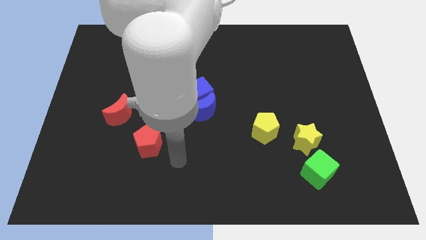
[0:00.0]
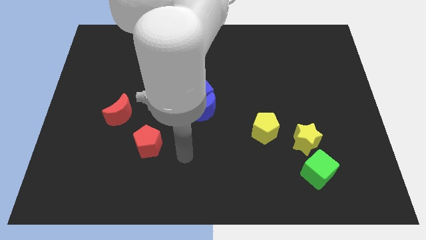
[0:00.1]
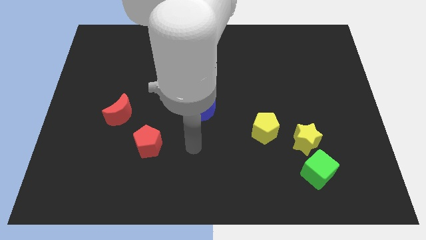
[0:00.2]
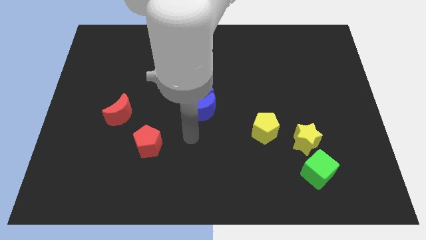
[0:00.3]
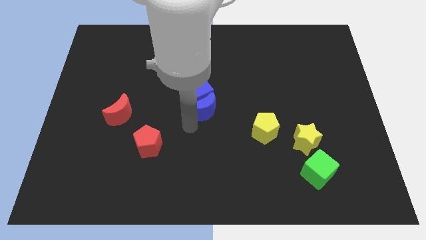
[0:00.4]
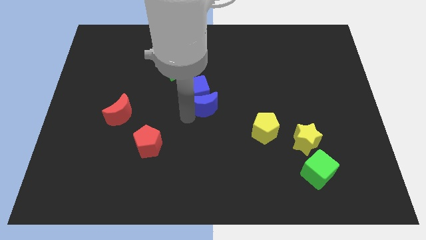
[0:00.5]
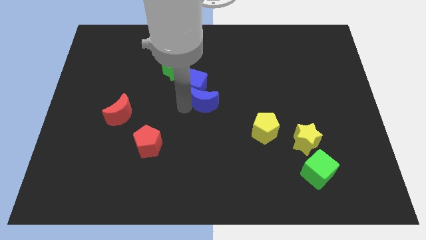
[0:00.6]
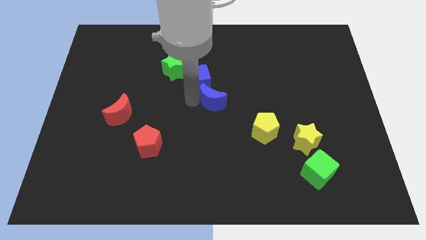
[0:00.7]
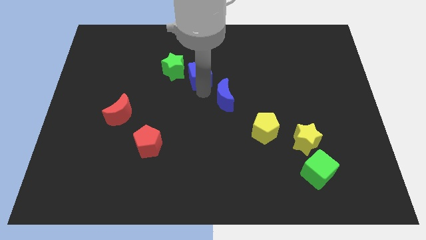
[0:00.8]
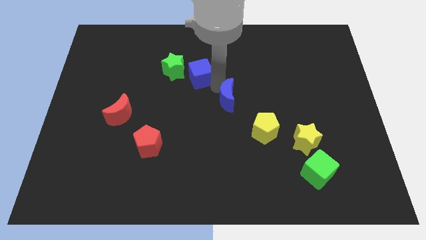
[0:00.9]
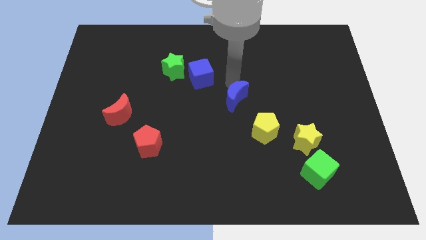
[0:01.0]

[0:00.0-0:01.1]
pull the blue moon apart from the blue cube

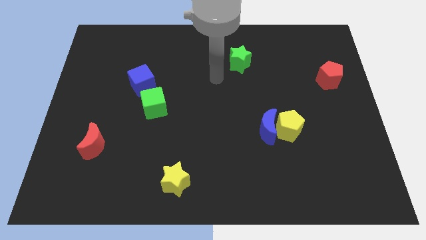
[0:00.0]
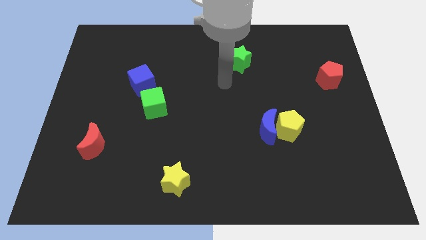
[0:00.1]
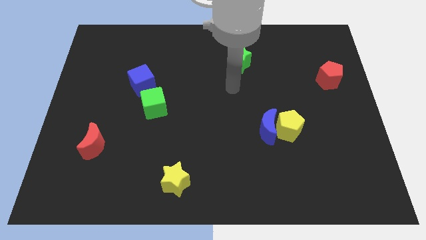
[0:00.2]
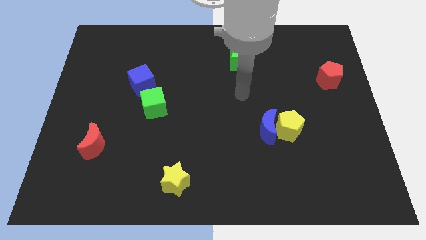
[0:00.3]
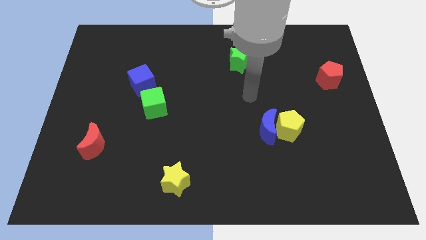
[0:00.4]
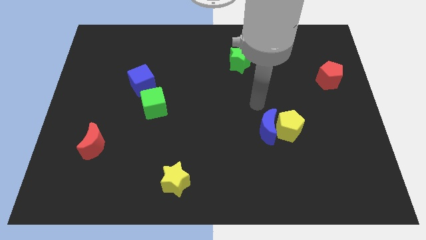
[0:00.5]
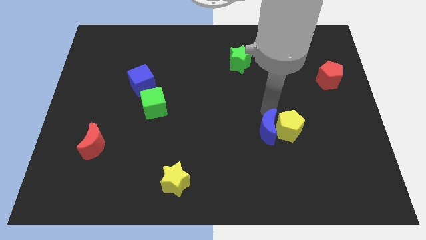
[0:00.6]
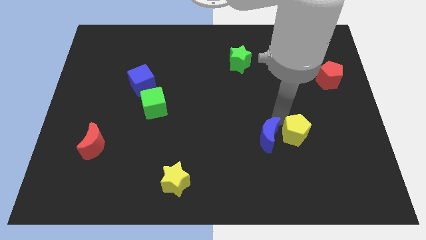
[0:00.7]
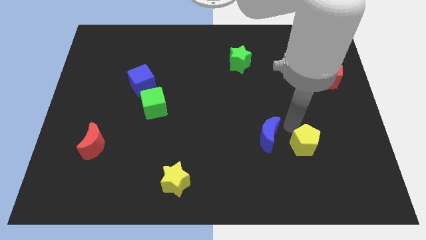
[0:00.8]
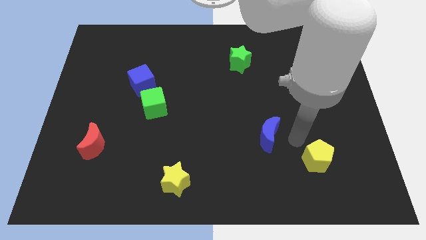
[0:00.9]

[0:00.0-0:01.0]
pull the blue moon apart from the yellow pentagon

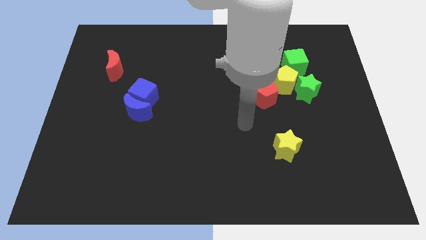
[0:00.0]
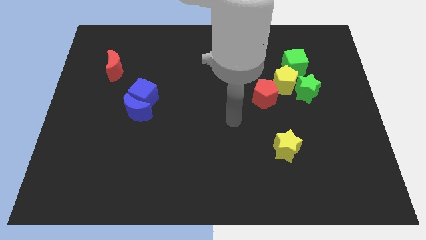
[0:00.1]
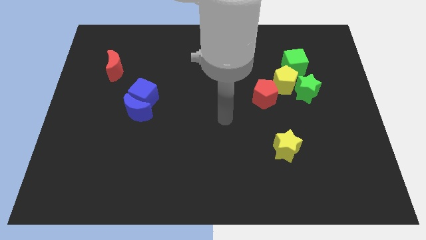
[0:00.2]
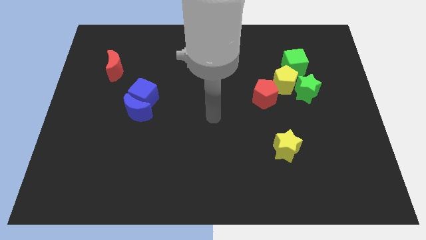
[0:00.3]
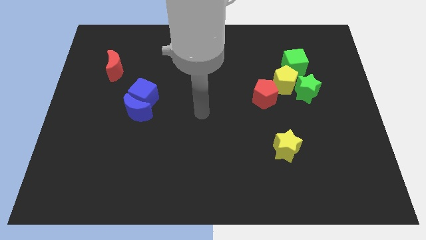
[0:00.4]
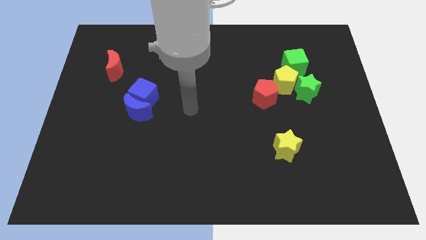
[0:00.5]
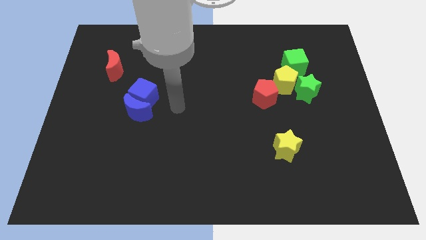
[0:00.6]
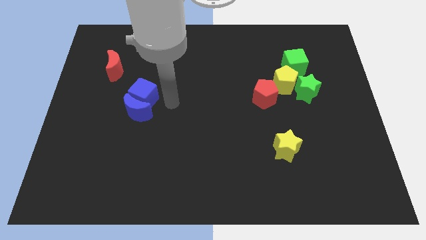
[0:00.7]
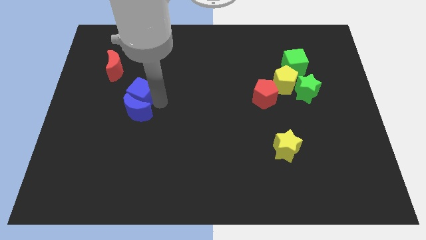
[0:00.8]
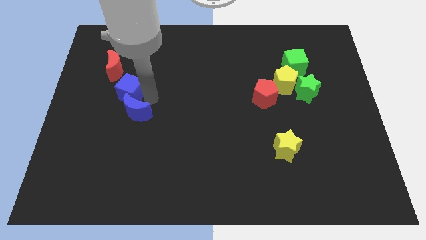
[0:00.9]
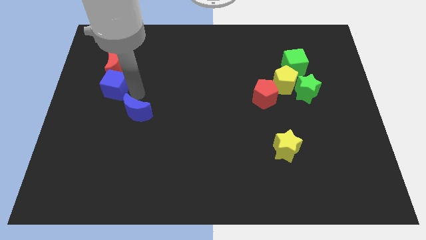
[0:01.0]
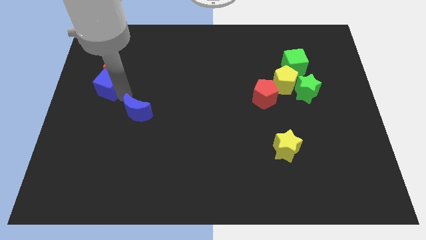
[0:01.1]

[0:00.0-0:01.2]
move the blue moon away from the blue cube

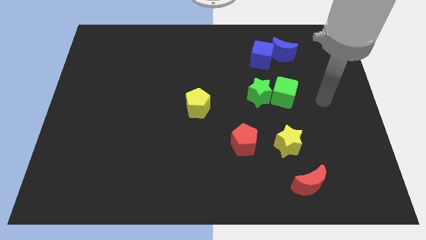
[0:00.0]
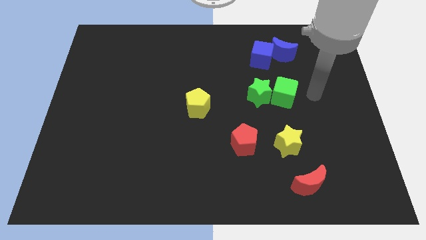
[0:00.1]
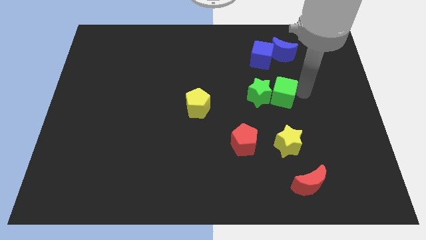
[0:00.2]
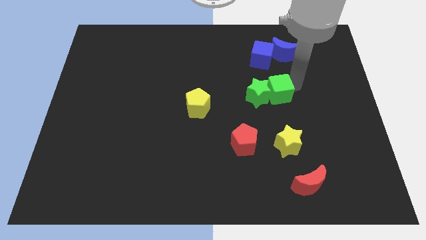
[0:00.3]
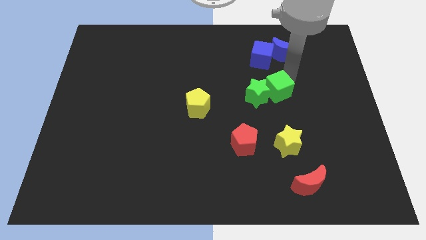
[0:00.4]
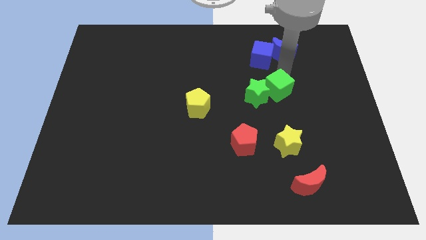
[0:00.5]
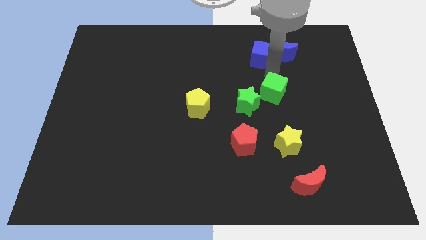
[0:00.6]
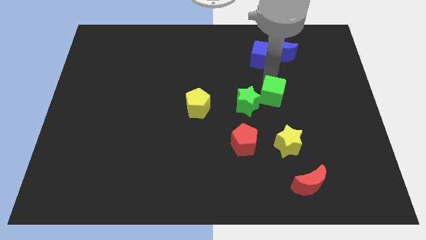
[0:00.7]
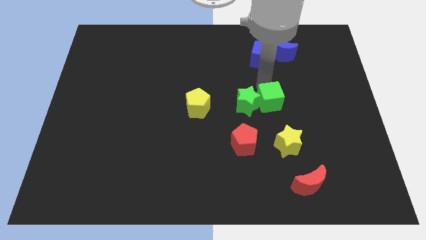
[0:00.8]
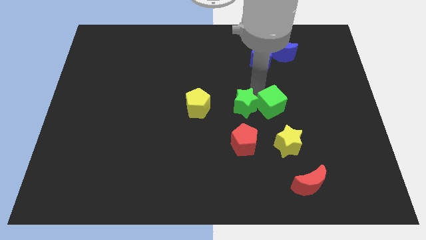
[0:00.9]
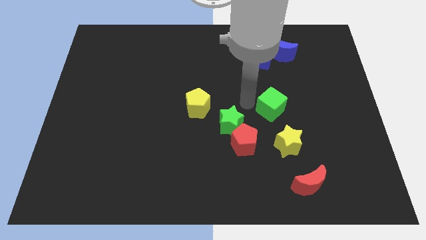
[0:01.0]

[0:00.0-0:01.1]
move the green cube away from the green star

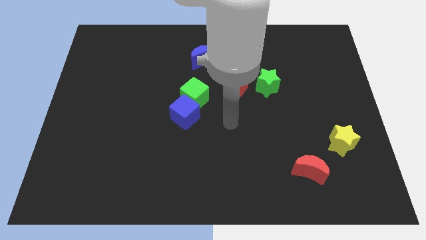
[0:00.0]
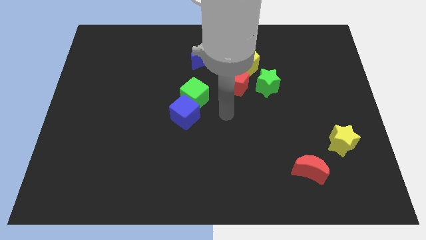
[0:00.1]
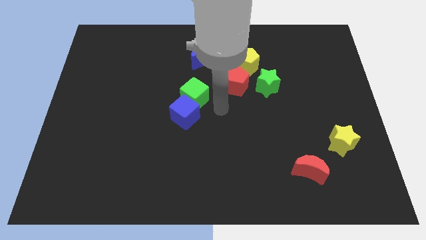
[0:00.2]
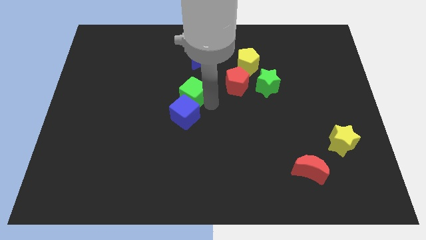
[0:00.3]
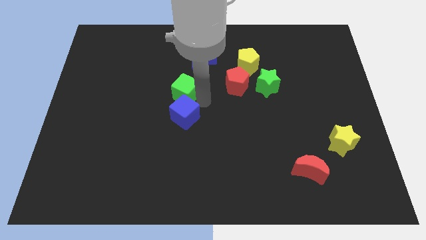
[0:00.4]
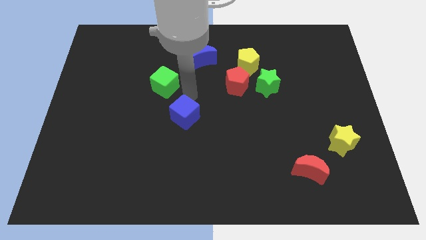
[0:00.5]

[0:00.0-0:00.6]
move the blue cube away from the green cube

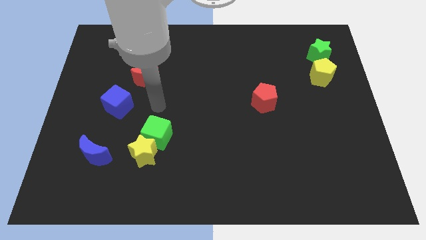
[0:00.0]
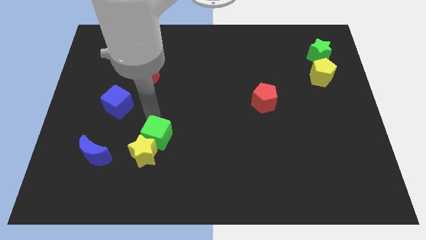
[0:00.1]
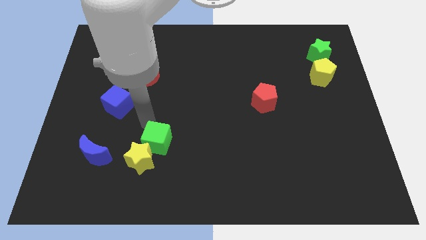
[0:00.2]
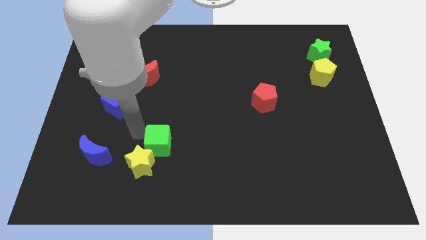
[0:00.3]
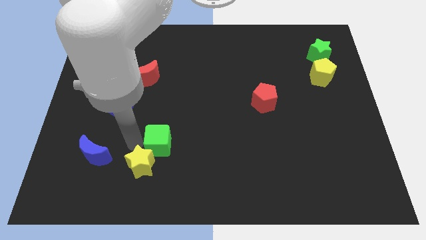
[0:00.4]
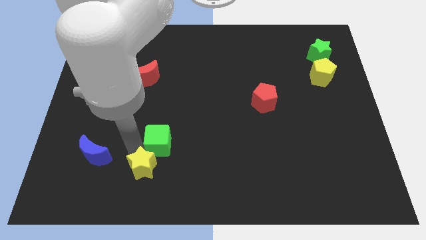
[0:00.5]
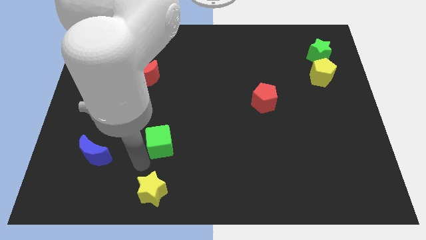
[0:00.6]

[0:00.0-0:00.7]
separate the green cube from the yellow star

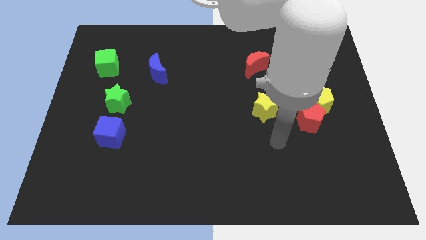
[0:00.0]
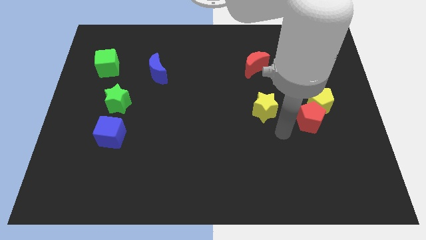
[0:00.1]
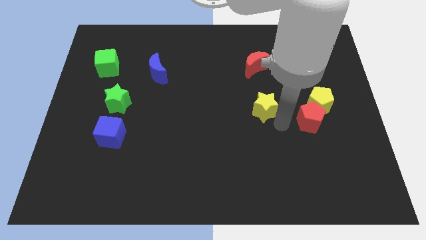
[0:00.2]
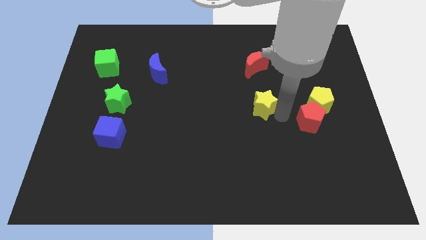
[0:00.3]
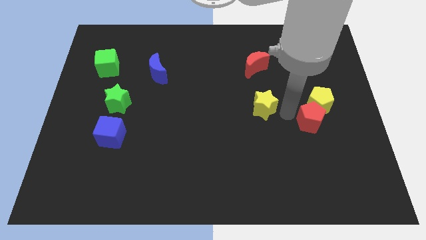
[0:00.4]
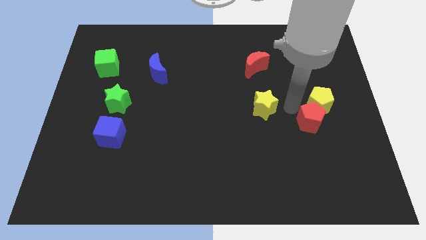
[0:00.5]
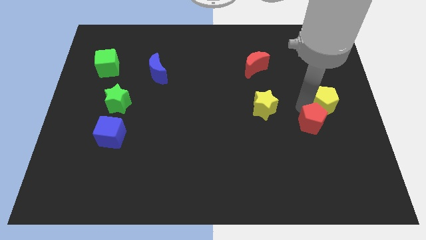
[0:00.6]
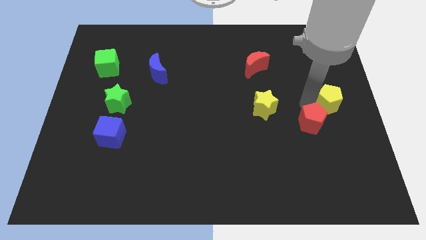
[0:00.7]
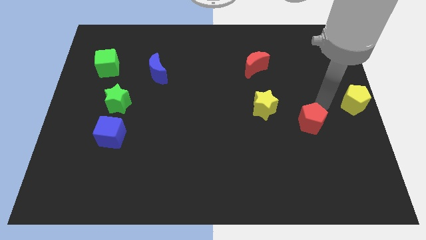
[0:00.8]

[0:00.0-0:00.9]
separate the red pentagon from the yellow pentagon

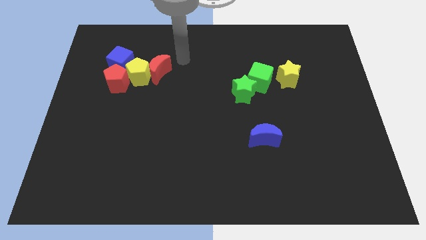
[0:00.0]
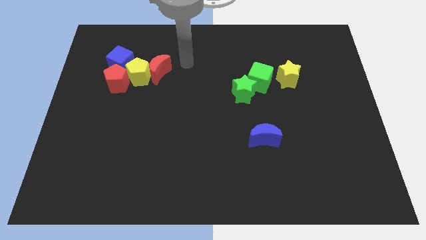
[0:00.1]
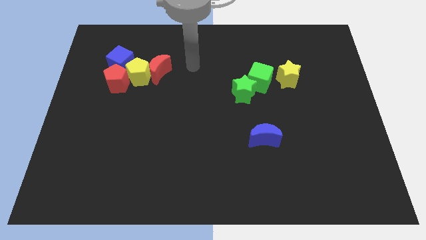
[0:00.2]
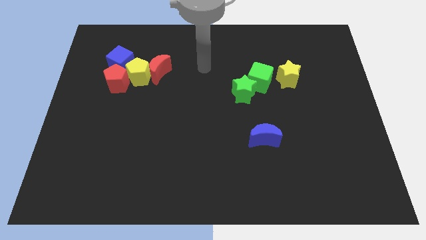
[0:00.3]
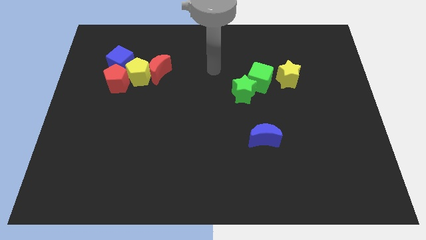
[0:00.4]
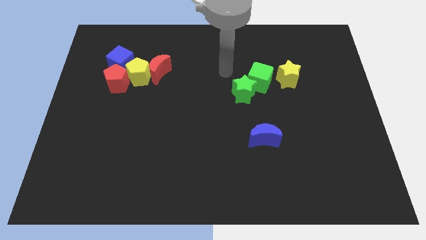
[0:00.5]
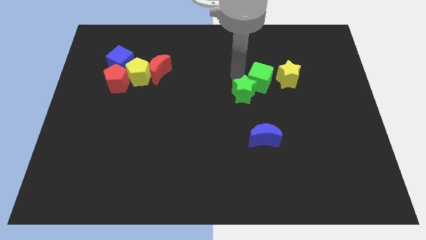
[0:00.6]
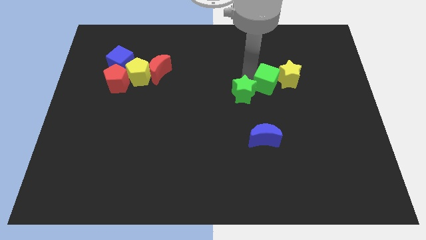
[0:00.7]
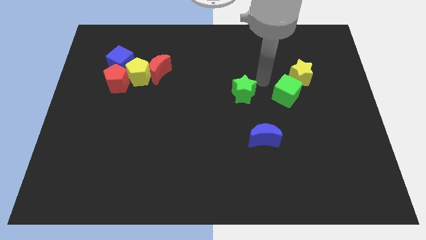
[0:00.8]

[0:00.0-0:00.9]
pull the green star apart from the green cube

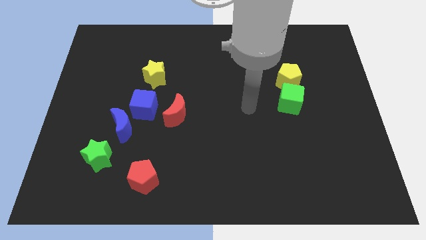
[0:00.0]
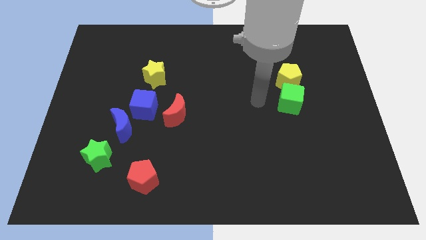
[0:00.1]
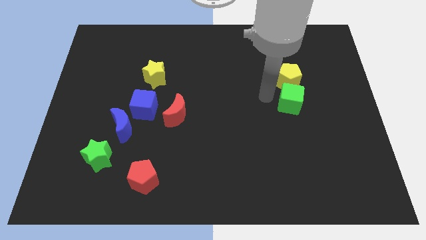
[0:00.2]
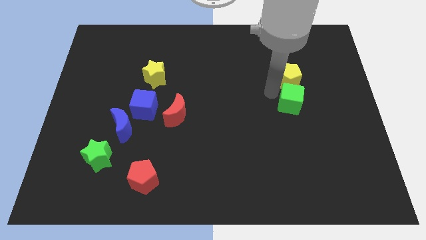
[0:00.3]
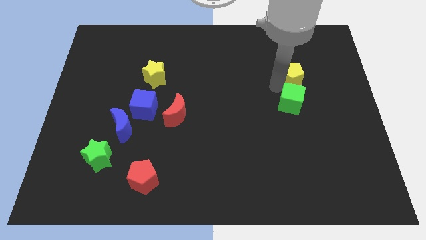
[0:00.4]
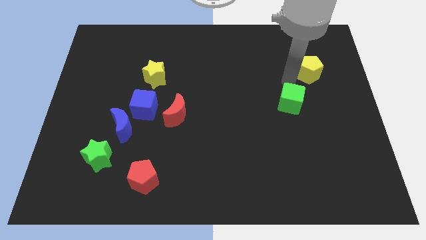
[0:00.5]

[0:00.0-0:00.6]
pull the green cube apart from the yellow pentagon

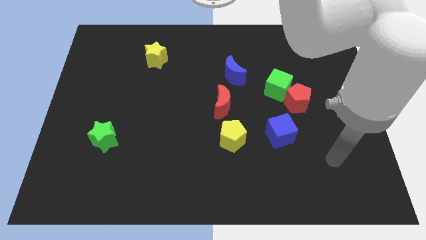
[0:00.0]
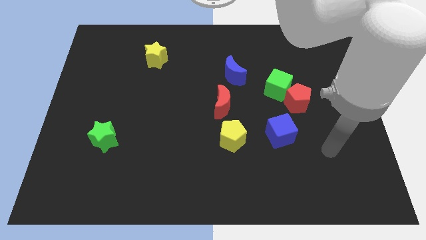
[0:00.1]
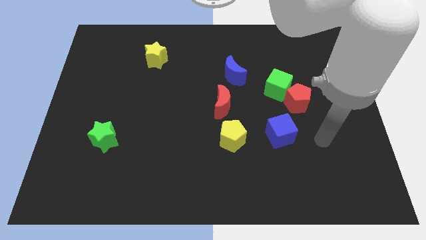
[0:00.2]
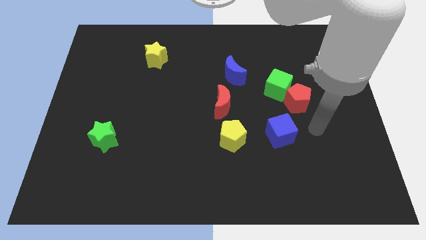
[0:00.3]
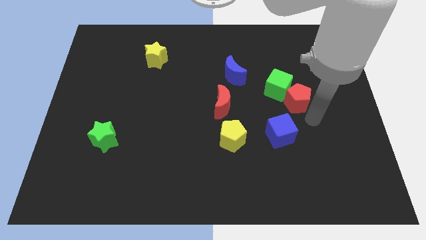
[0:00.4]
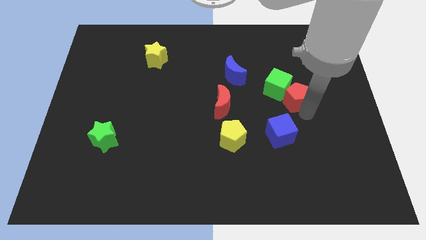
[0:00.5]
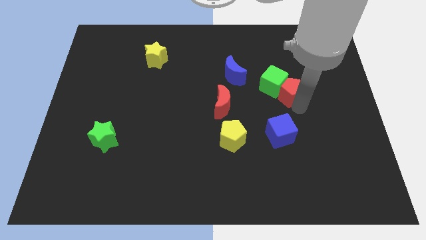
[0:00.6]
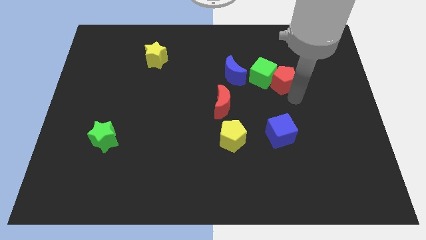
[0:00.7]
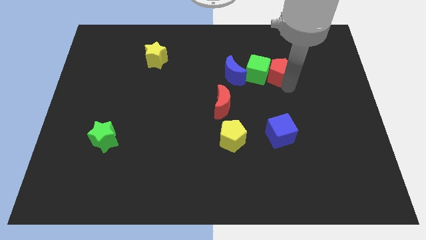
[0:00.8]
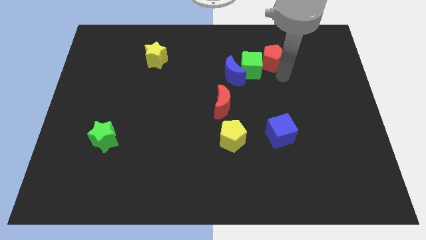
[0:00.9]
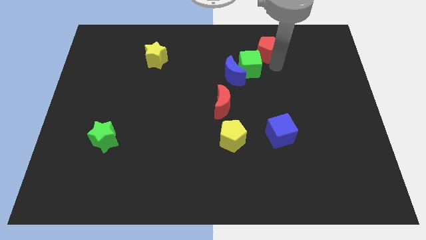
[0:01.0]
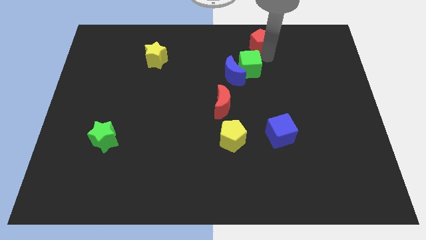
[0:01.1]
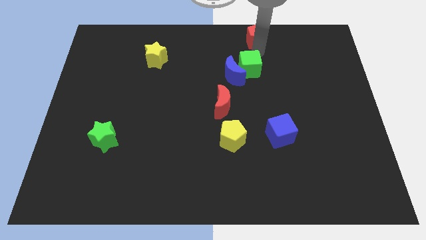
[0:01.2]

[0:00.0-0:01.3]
separate the green cube from the red pentagon
